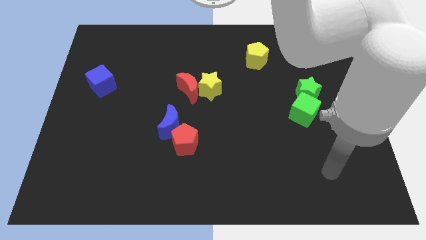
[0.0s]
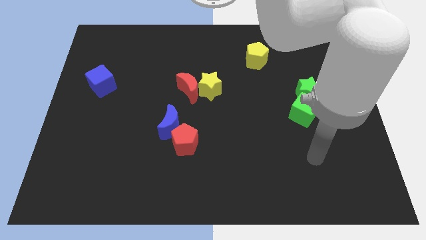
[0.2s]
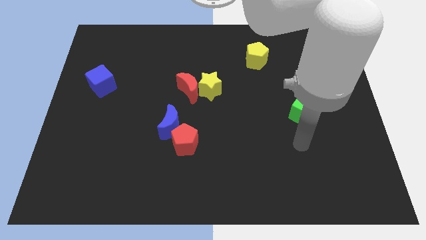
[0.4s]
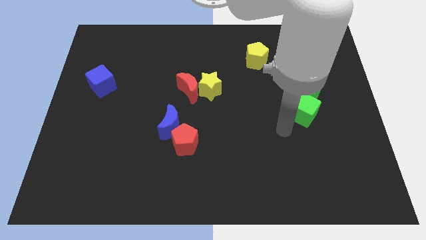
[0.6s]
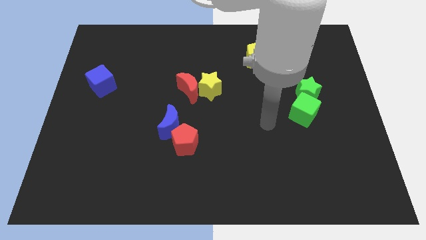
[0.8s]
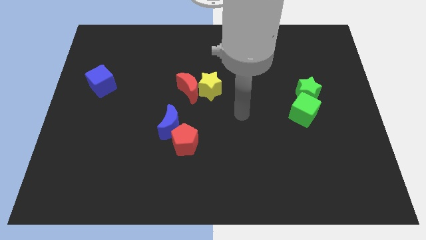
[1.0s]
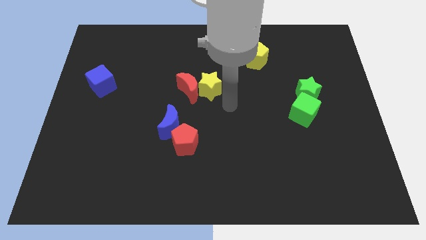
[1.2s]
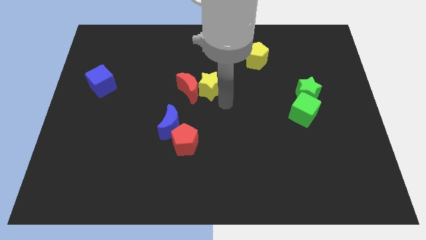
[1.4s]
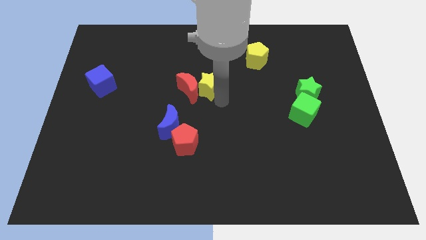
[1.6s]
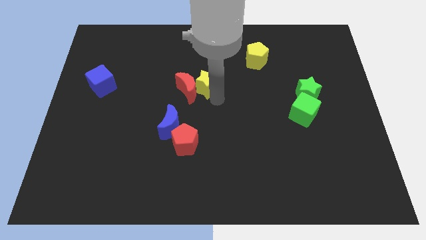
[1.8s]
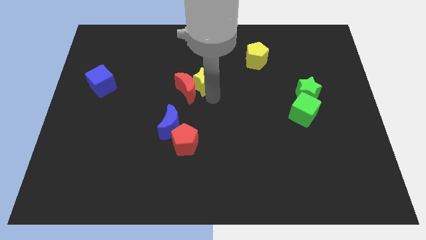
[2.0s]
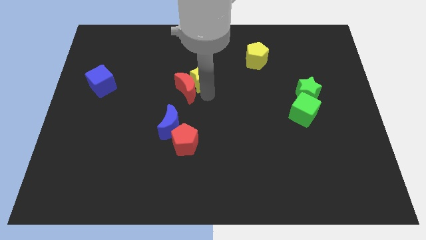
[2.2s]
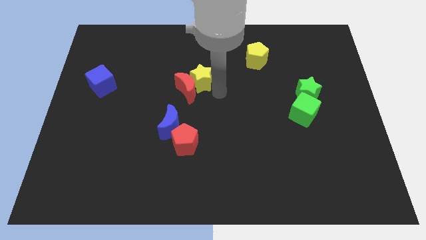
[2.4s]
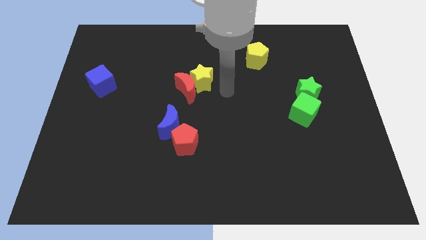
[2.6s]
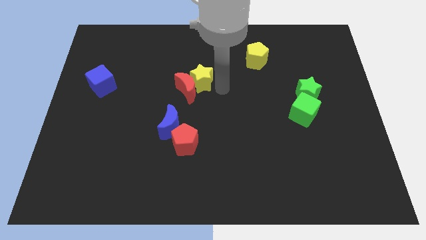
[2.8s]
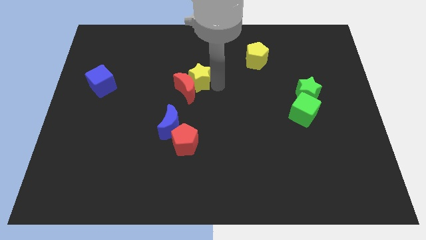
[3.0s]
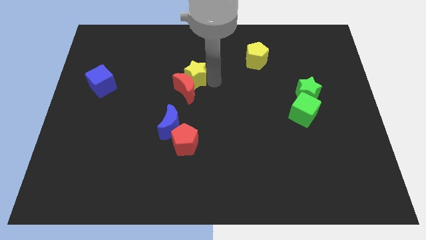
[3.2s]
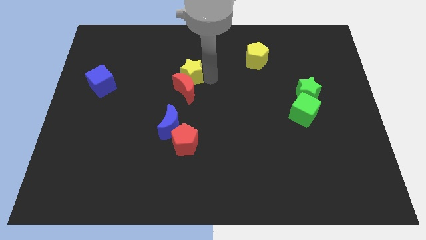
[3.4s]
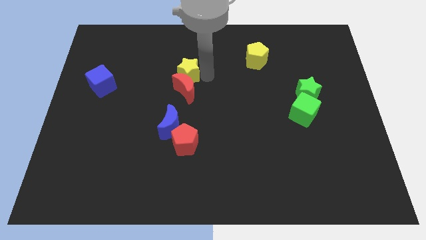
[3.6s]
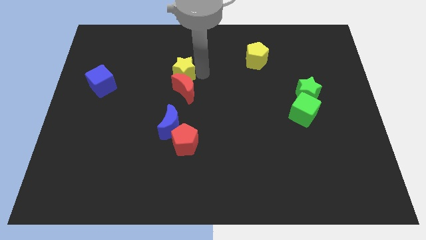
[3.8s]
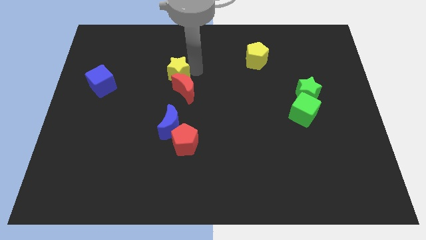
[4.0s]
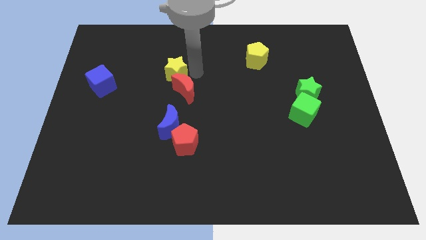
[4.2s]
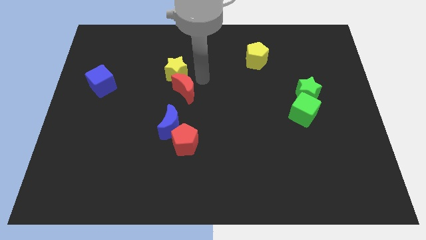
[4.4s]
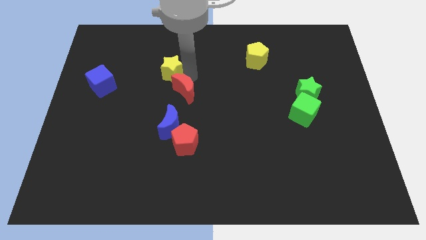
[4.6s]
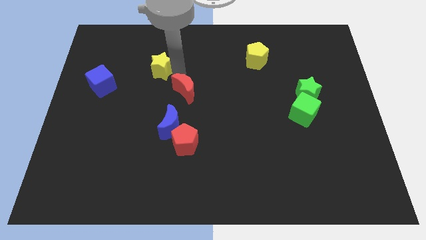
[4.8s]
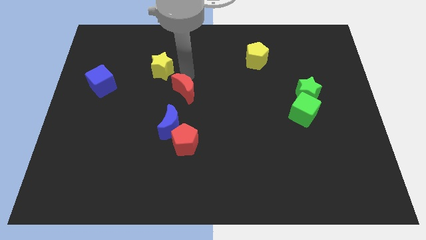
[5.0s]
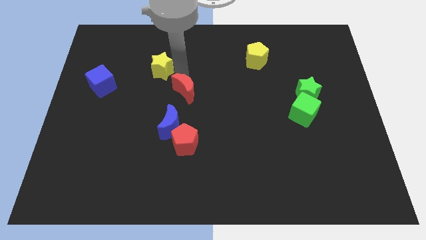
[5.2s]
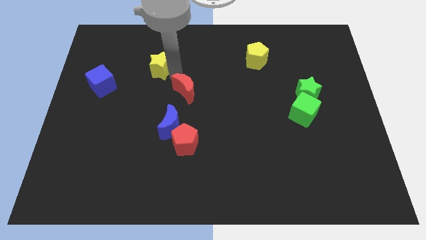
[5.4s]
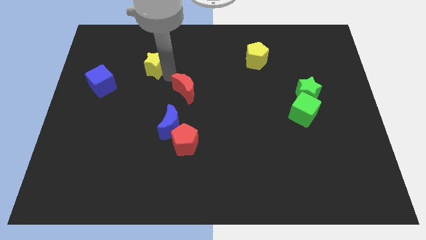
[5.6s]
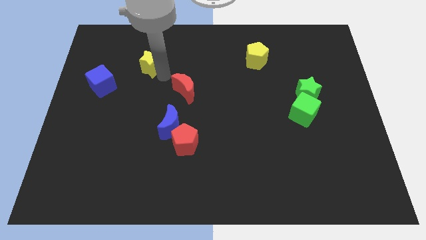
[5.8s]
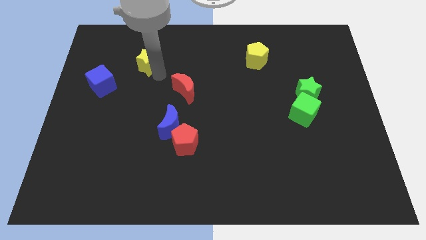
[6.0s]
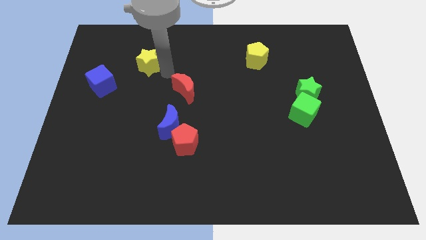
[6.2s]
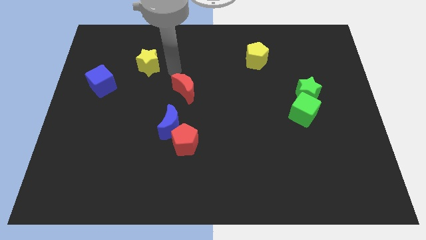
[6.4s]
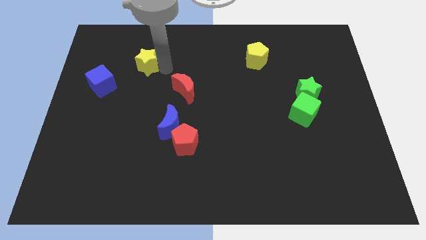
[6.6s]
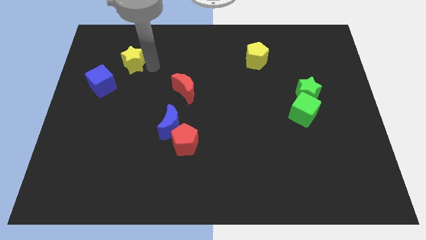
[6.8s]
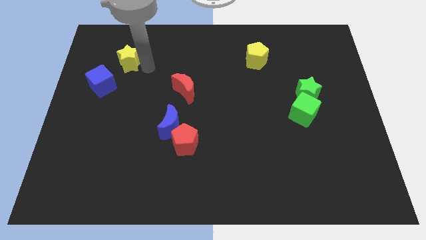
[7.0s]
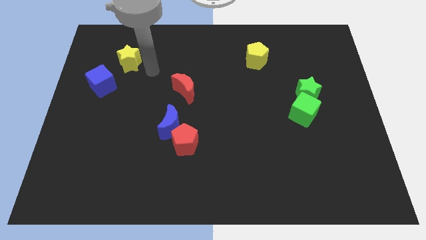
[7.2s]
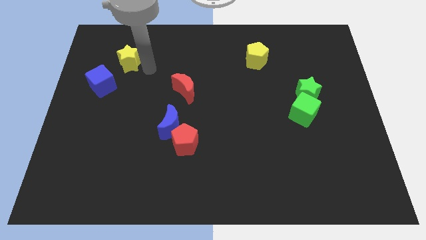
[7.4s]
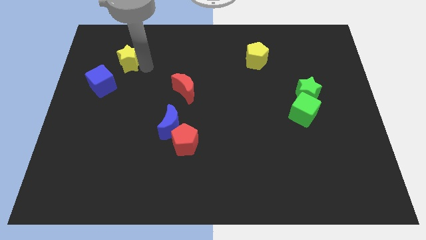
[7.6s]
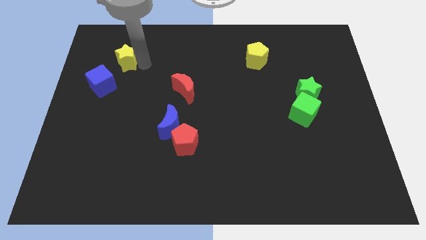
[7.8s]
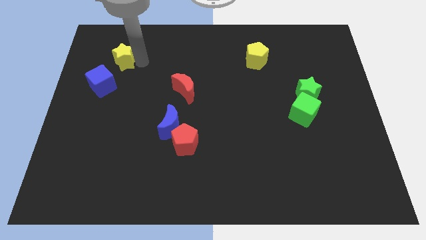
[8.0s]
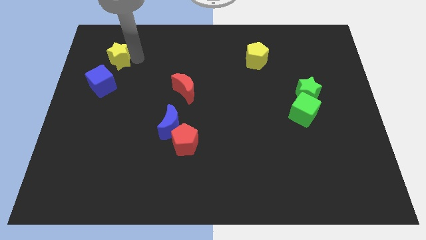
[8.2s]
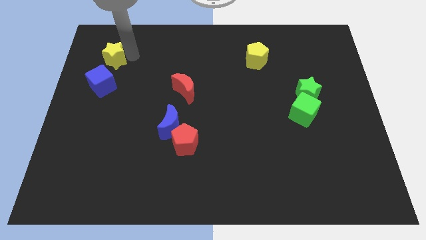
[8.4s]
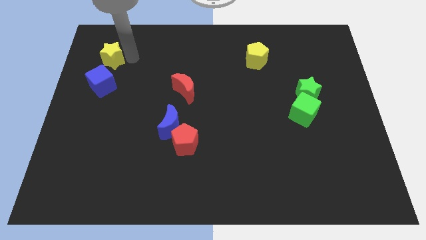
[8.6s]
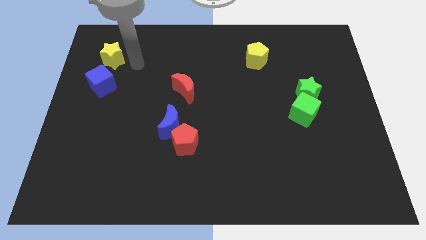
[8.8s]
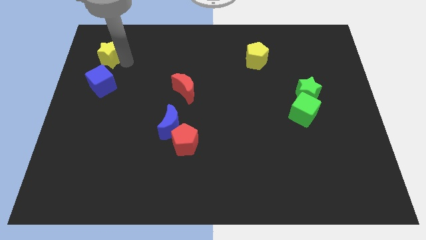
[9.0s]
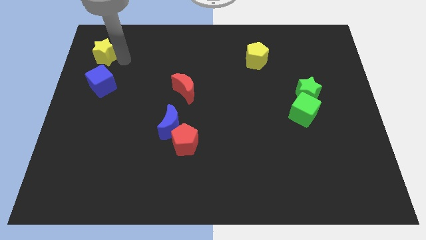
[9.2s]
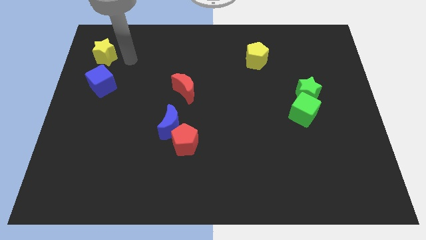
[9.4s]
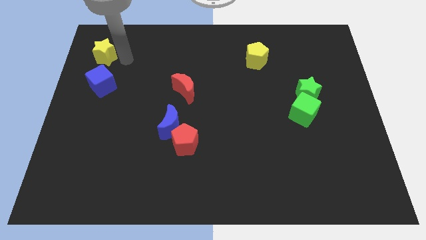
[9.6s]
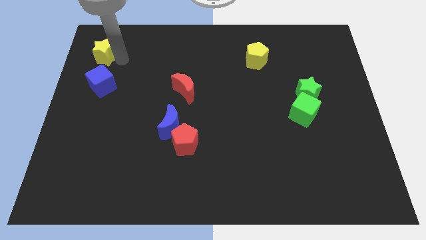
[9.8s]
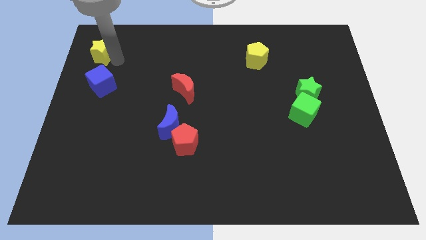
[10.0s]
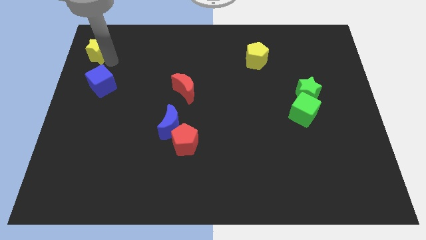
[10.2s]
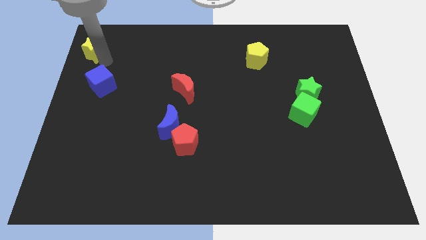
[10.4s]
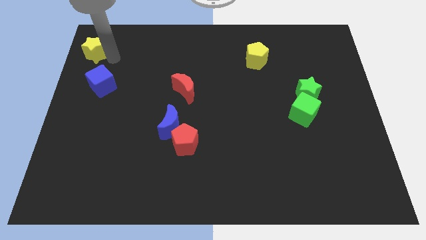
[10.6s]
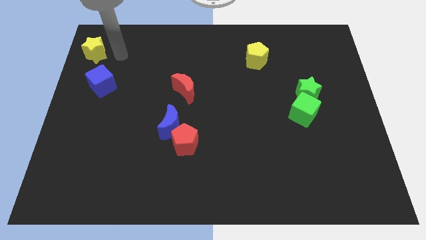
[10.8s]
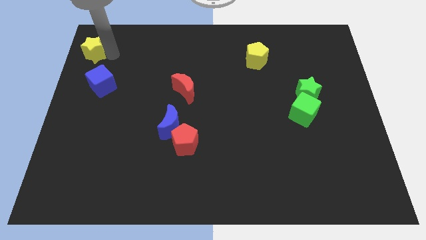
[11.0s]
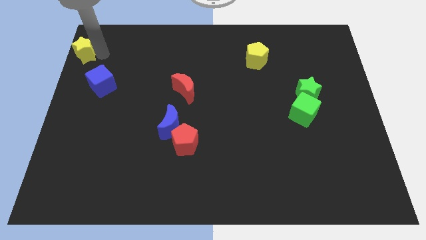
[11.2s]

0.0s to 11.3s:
push the yellow star to the upper left corner

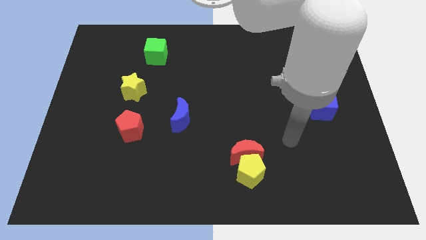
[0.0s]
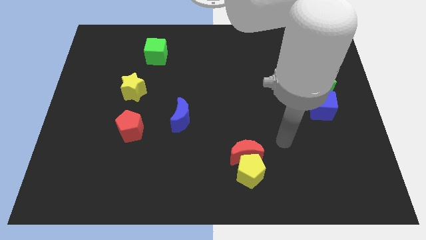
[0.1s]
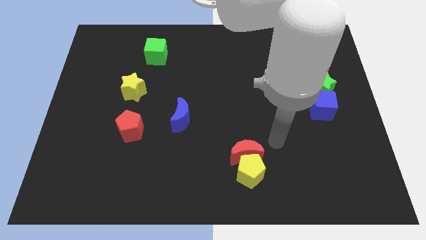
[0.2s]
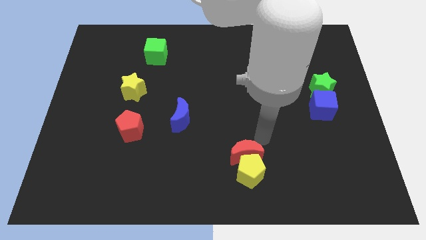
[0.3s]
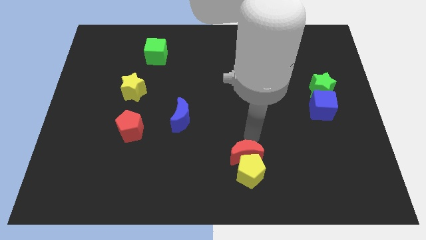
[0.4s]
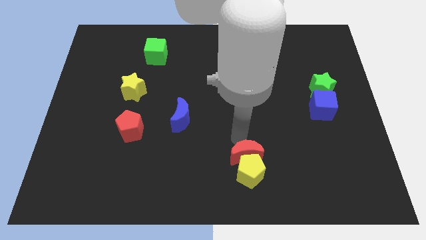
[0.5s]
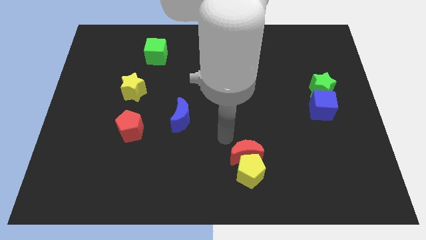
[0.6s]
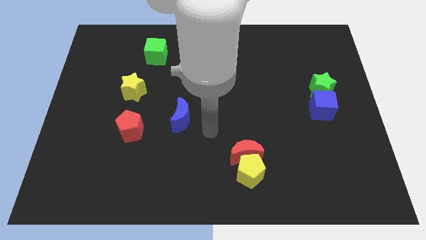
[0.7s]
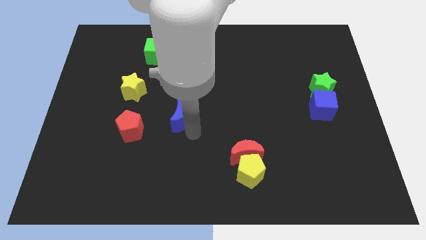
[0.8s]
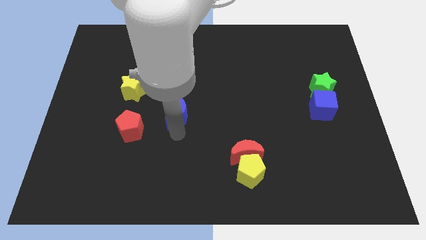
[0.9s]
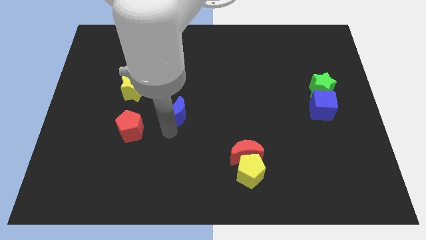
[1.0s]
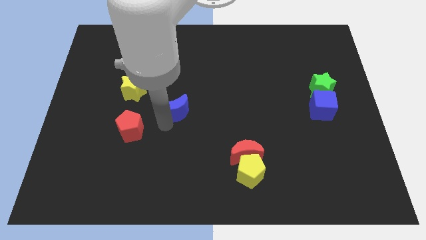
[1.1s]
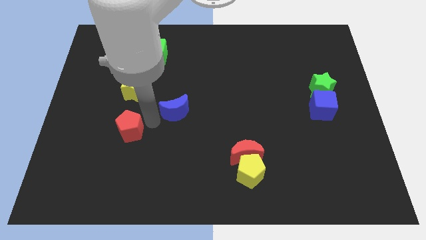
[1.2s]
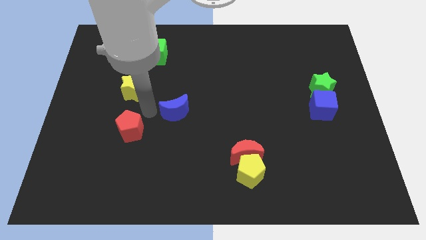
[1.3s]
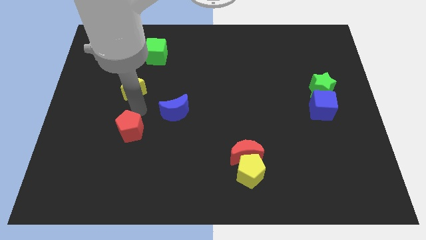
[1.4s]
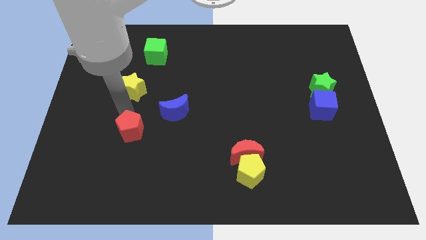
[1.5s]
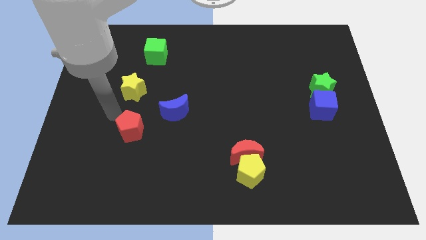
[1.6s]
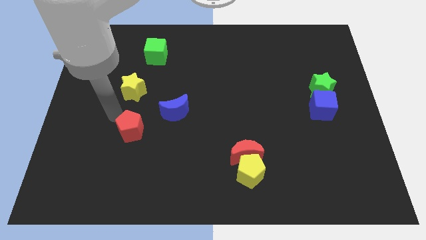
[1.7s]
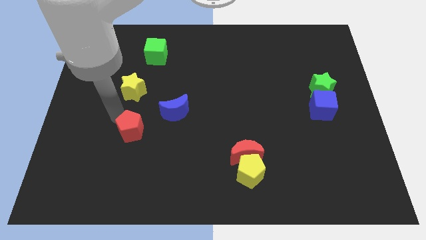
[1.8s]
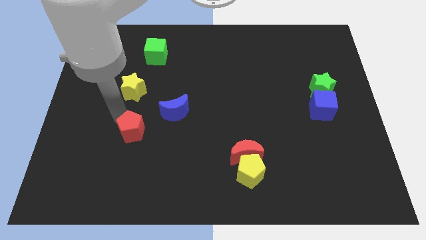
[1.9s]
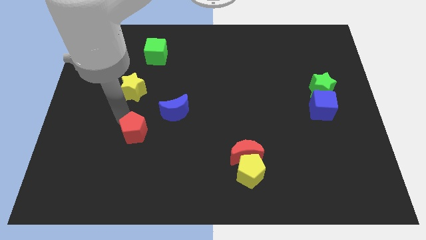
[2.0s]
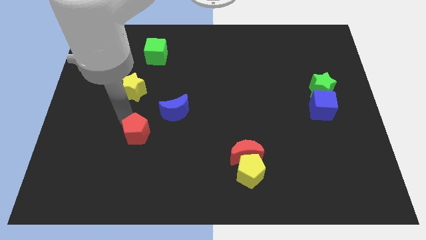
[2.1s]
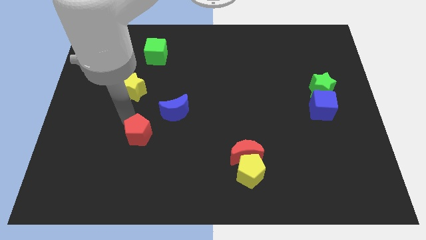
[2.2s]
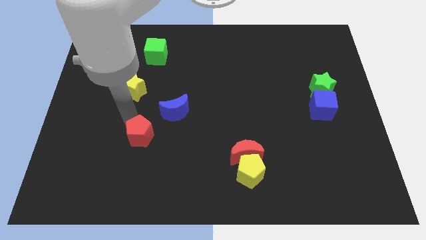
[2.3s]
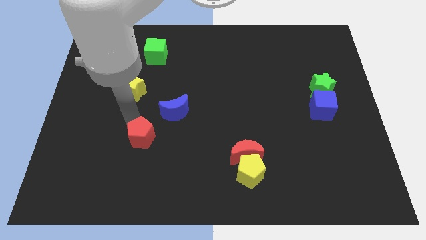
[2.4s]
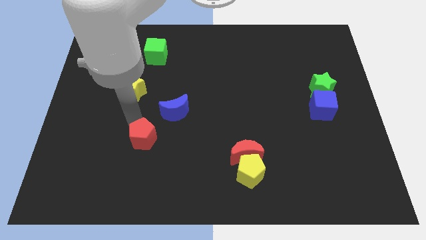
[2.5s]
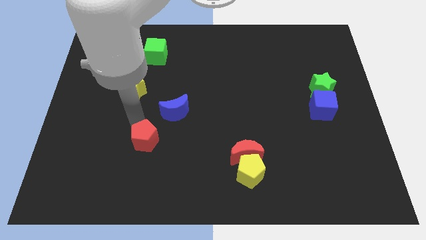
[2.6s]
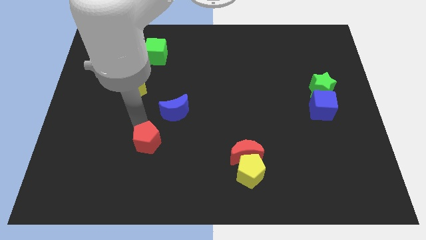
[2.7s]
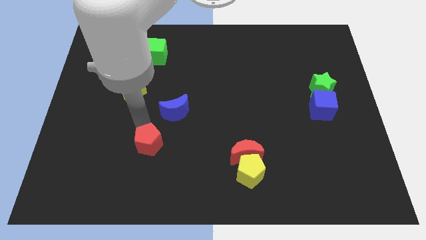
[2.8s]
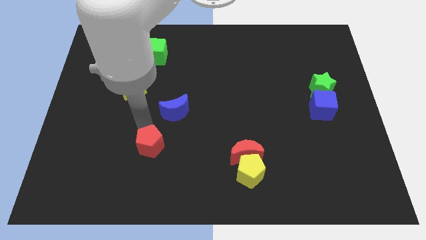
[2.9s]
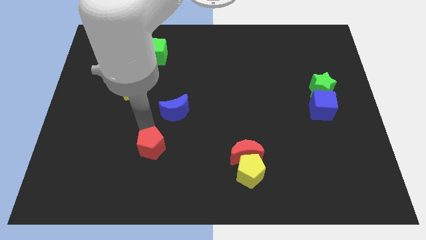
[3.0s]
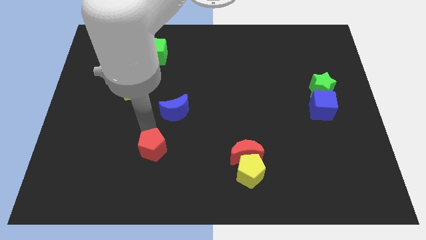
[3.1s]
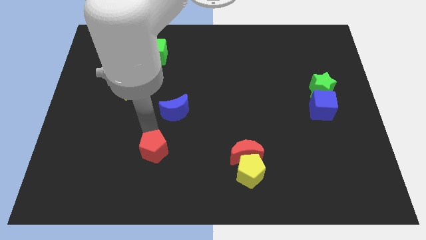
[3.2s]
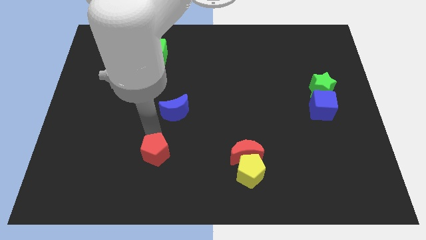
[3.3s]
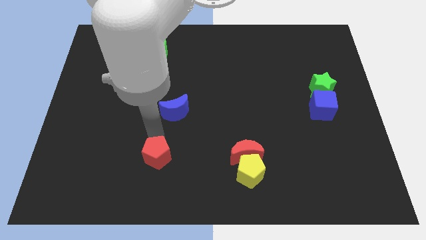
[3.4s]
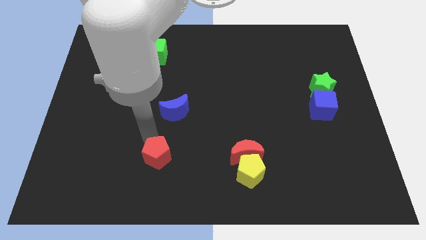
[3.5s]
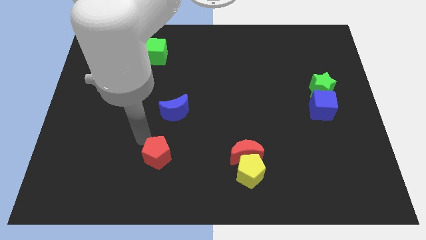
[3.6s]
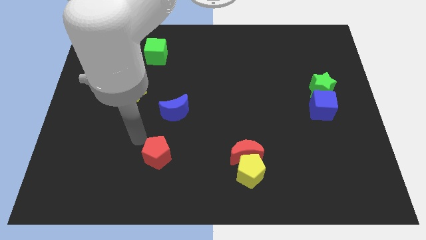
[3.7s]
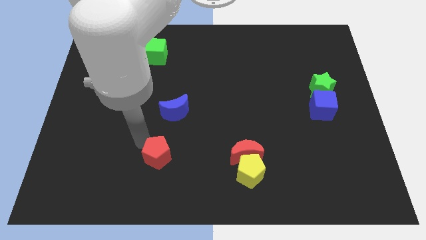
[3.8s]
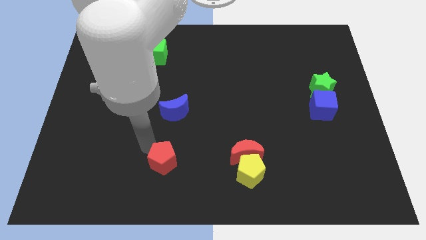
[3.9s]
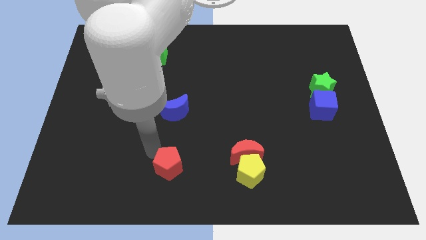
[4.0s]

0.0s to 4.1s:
put the red pentagon to the bottom side
